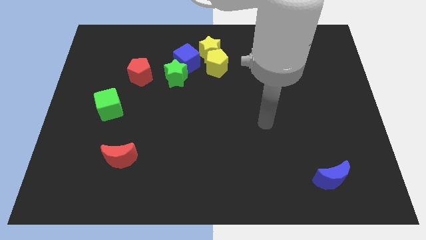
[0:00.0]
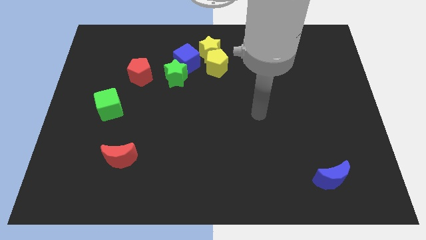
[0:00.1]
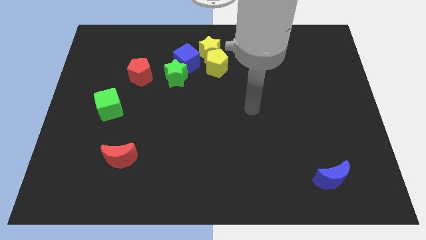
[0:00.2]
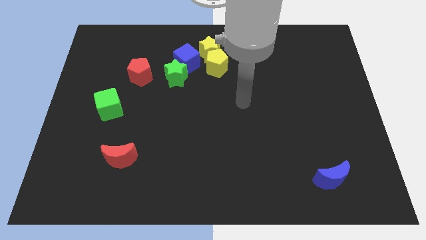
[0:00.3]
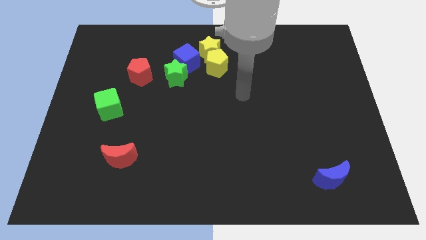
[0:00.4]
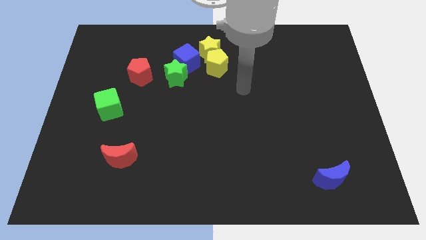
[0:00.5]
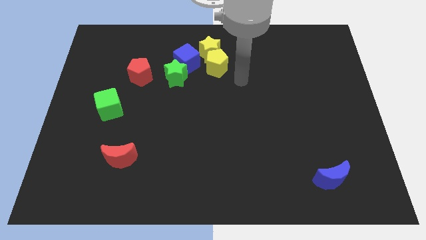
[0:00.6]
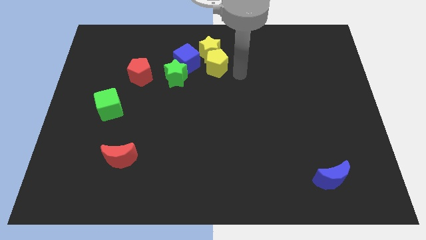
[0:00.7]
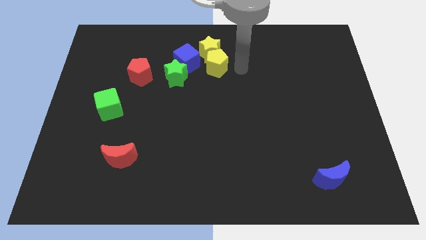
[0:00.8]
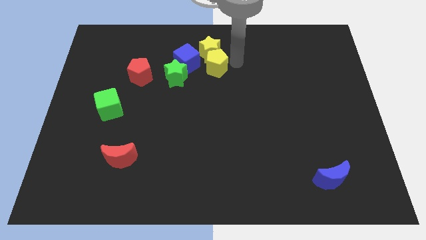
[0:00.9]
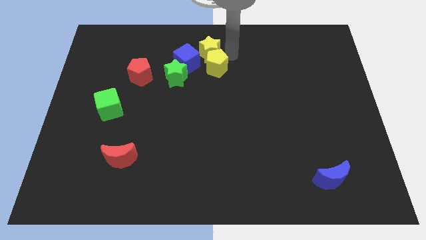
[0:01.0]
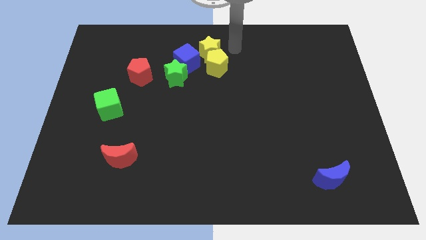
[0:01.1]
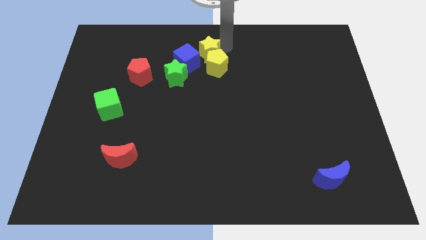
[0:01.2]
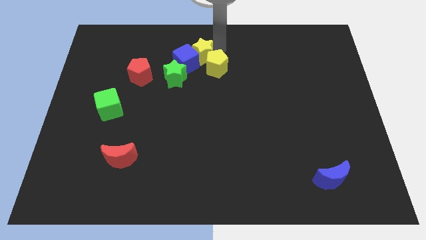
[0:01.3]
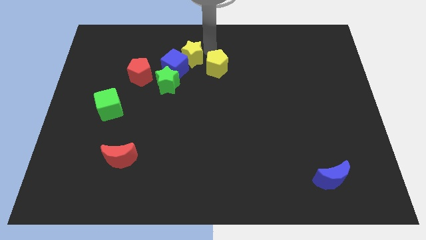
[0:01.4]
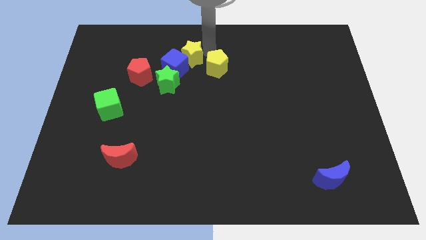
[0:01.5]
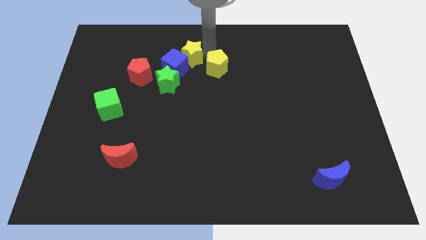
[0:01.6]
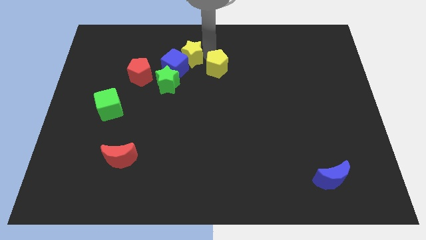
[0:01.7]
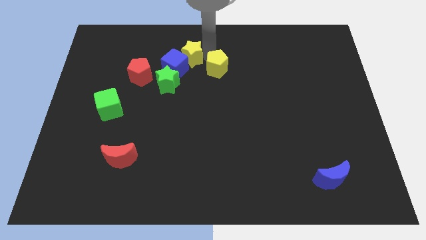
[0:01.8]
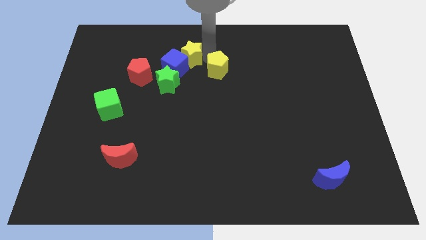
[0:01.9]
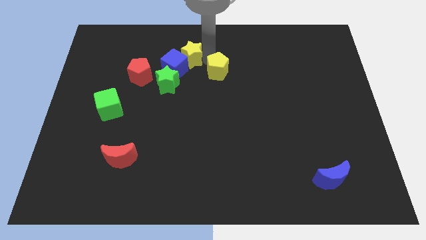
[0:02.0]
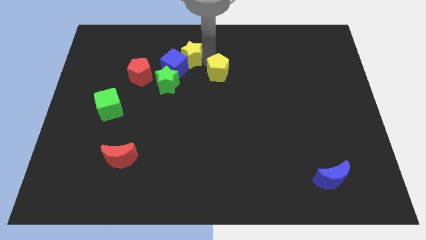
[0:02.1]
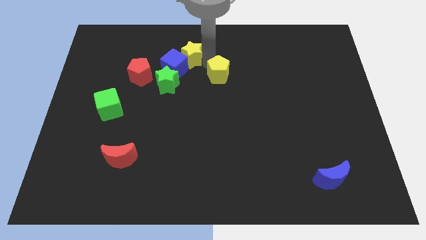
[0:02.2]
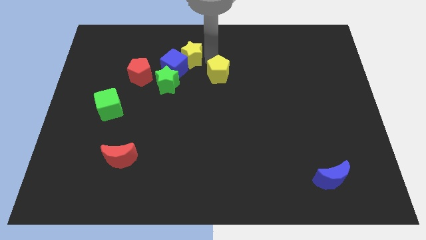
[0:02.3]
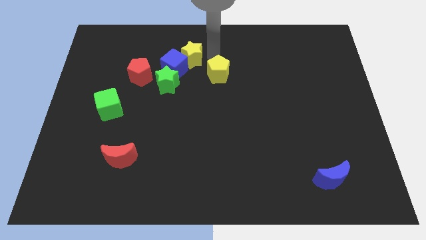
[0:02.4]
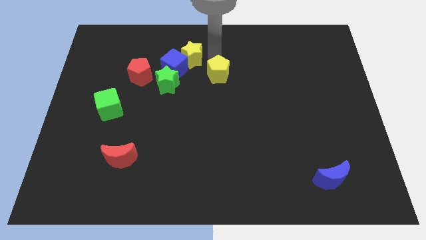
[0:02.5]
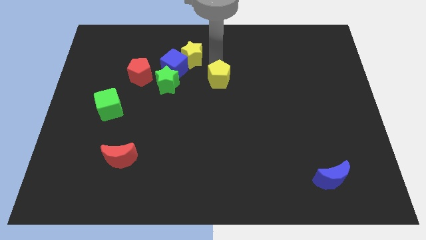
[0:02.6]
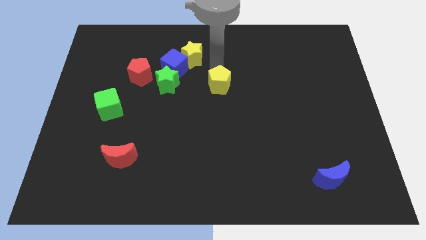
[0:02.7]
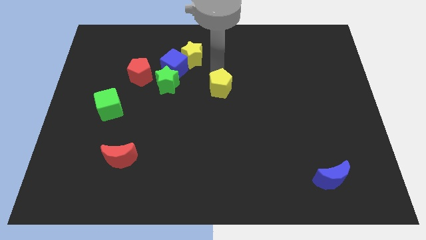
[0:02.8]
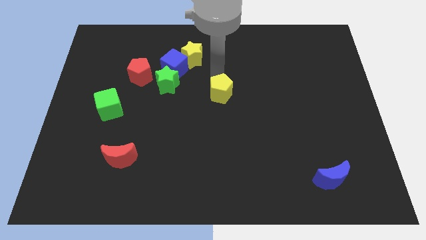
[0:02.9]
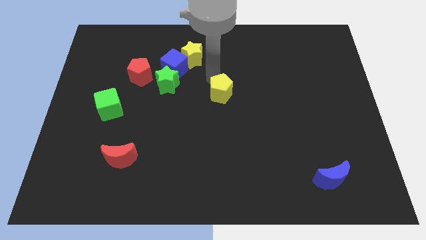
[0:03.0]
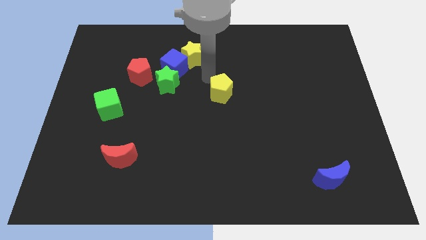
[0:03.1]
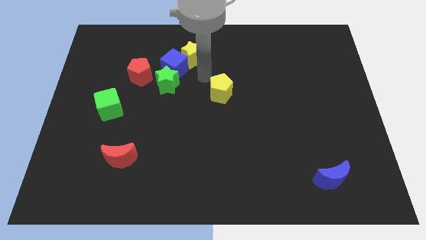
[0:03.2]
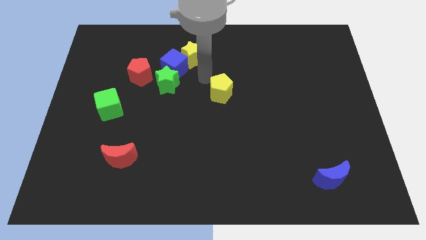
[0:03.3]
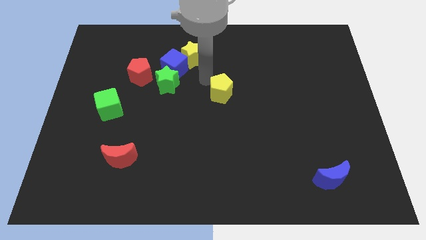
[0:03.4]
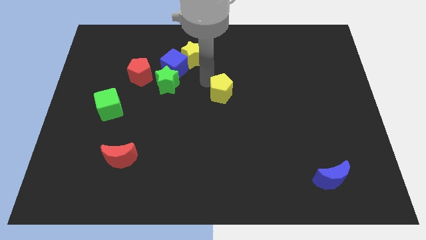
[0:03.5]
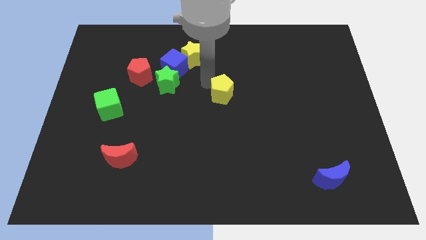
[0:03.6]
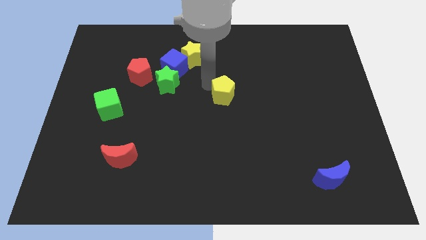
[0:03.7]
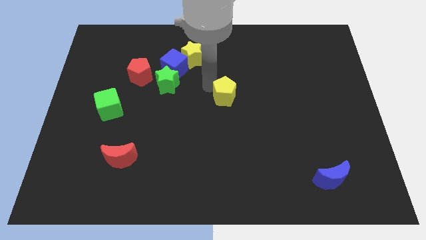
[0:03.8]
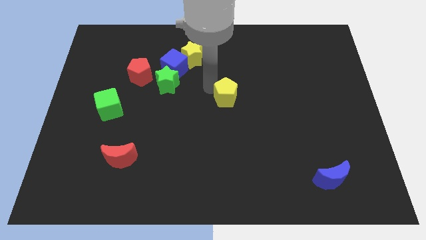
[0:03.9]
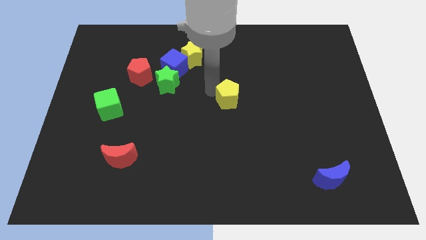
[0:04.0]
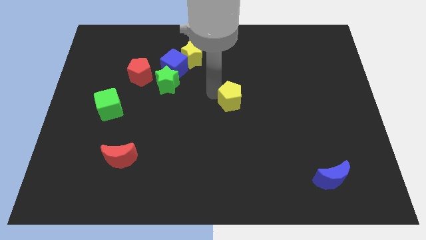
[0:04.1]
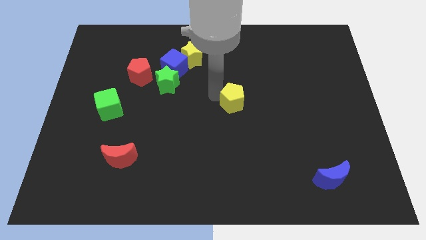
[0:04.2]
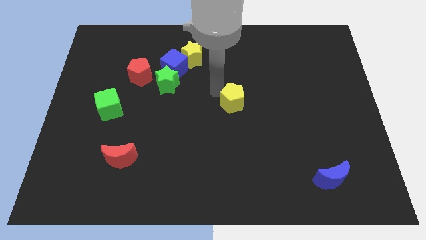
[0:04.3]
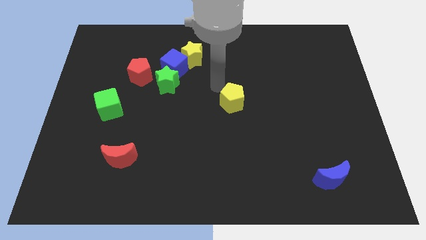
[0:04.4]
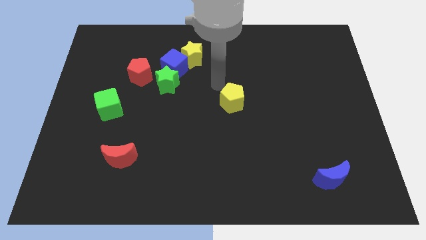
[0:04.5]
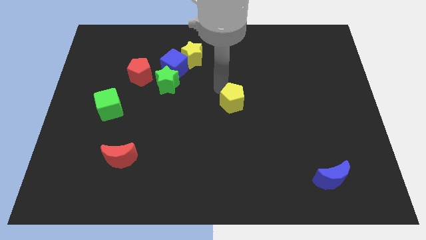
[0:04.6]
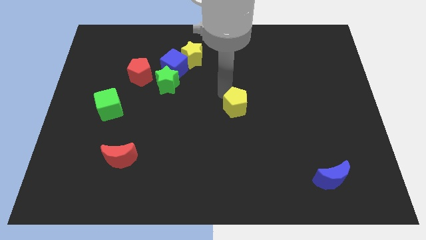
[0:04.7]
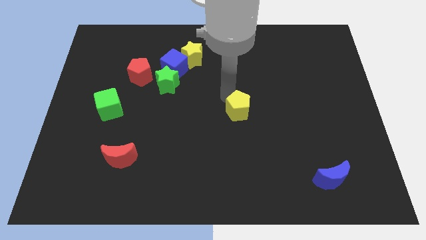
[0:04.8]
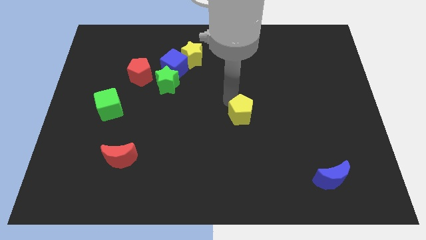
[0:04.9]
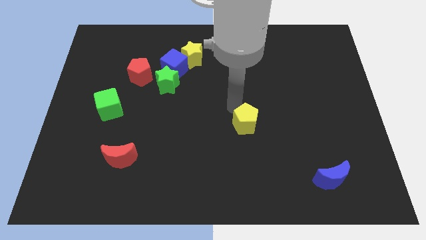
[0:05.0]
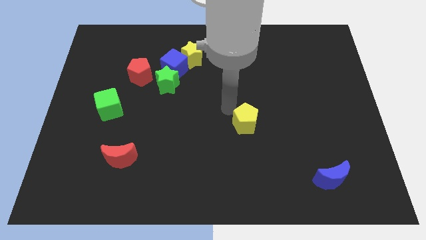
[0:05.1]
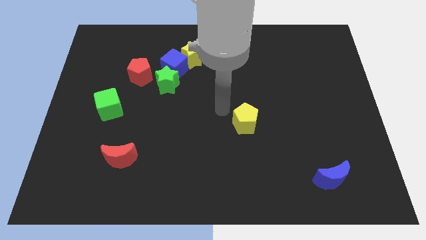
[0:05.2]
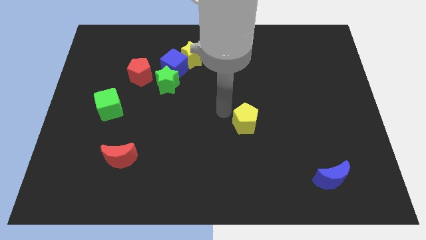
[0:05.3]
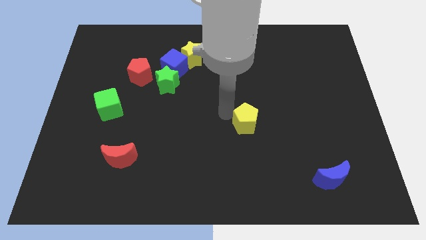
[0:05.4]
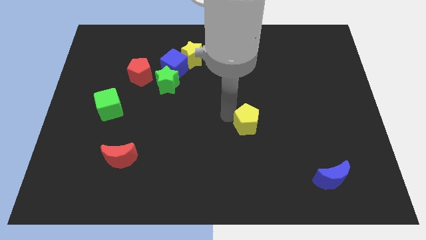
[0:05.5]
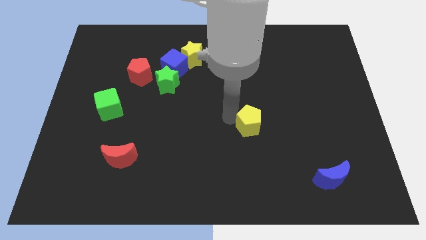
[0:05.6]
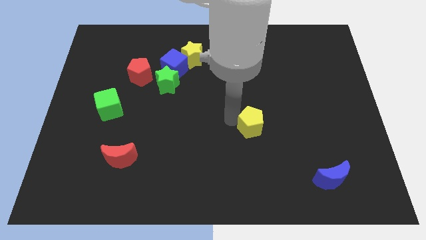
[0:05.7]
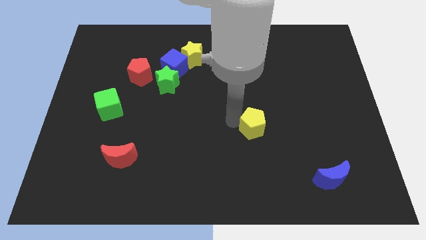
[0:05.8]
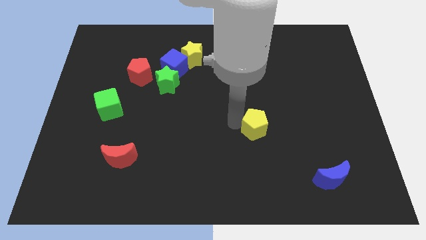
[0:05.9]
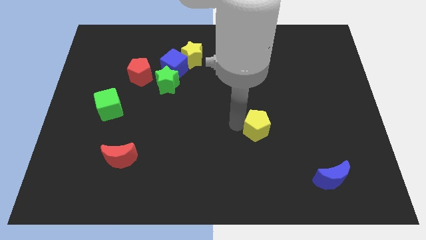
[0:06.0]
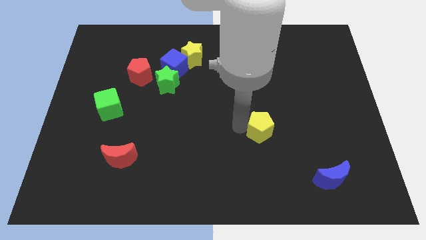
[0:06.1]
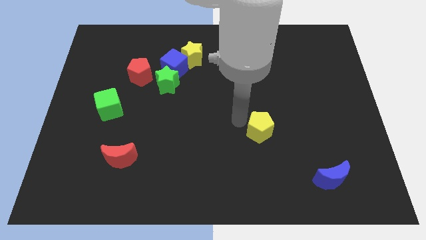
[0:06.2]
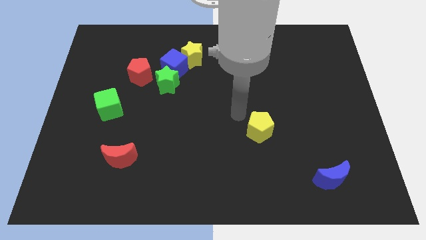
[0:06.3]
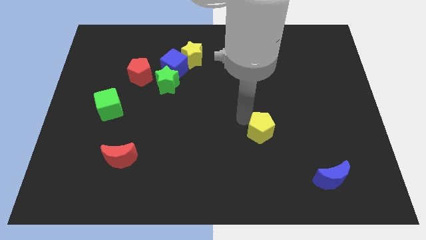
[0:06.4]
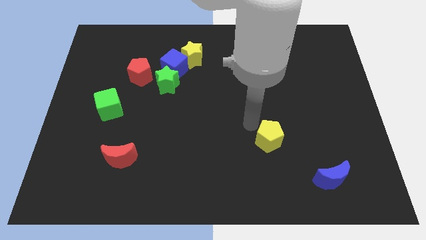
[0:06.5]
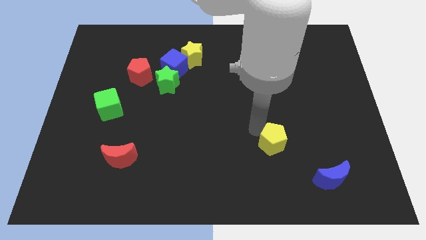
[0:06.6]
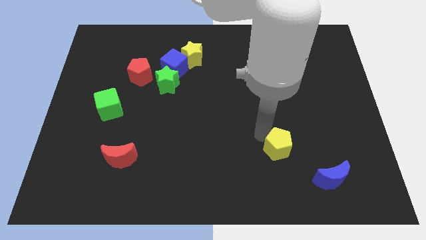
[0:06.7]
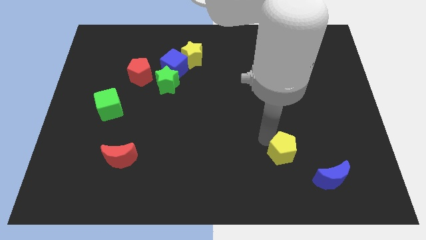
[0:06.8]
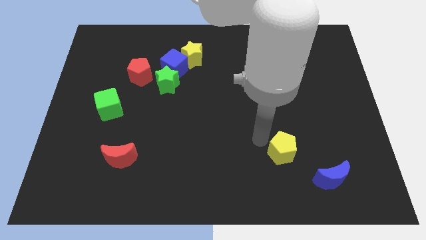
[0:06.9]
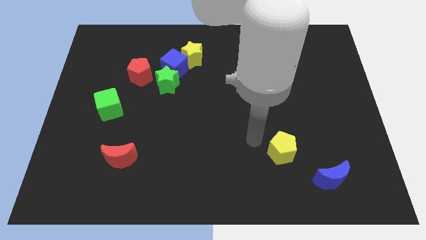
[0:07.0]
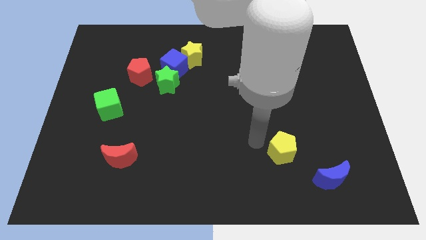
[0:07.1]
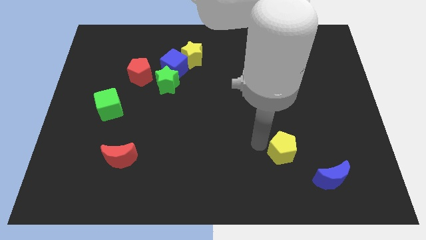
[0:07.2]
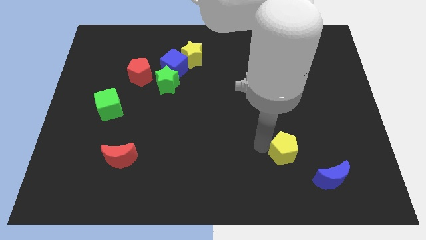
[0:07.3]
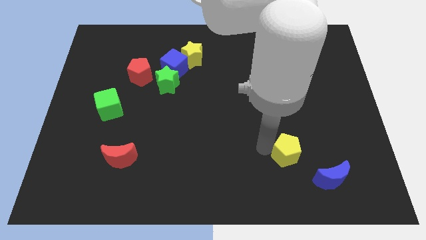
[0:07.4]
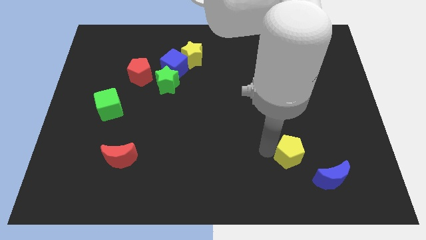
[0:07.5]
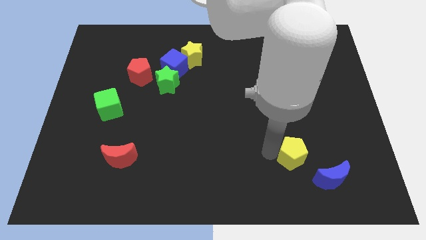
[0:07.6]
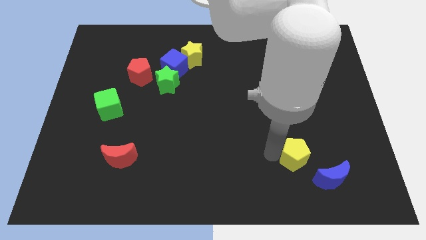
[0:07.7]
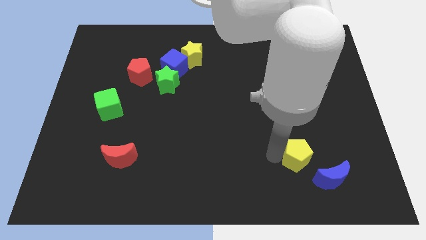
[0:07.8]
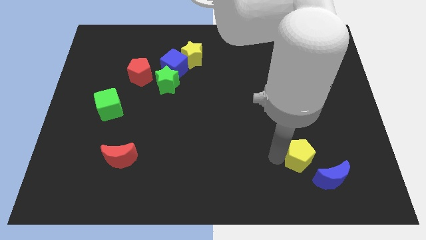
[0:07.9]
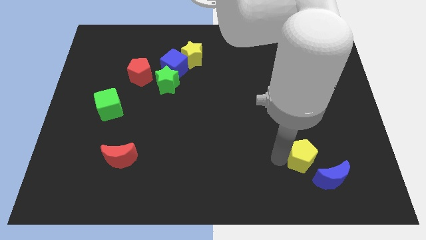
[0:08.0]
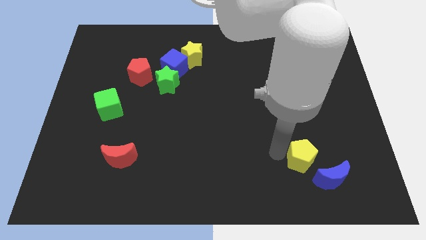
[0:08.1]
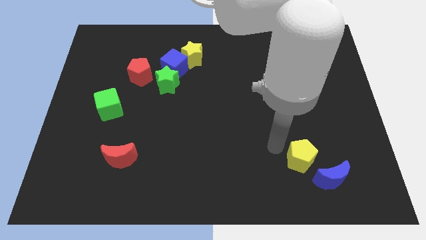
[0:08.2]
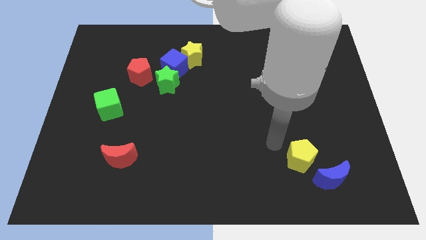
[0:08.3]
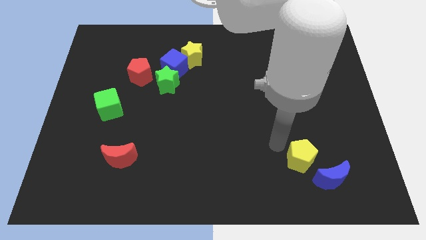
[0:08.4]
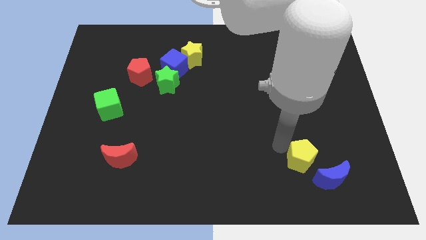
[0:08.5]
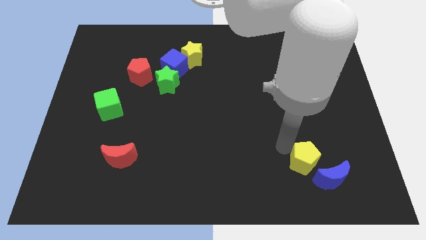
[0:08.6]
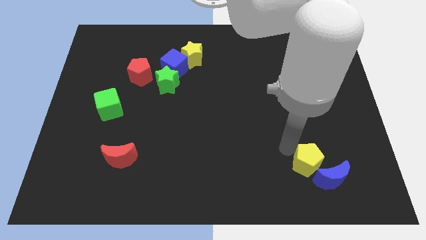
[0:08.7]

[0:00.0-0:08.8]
move the yellow pentagon next to the blue moon
